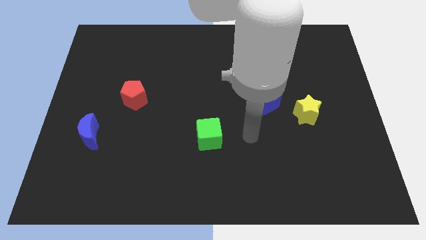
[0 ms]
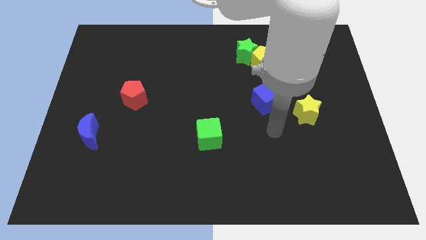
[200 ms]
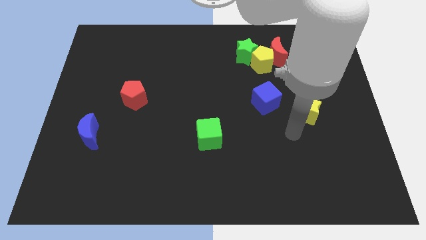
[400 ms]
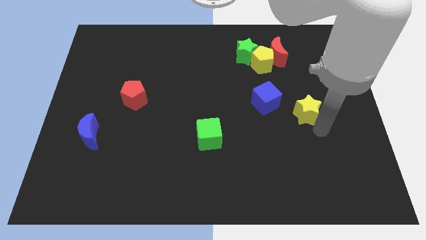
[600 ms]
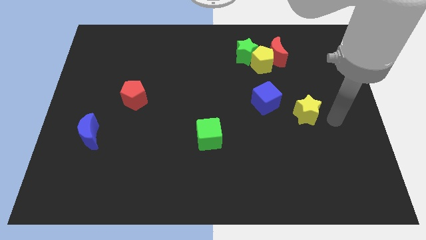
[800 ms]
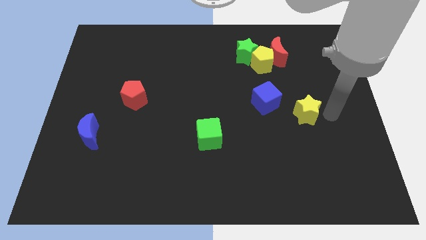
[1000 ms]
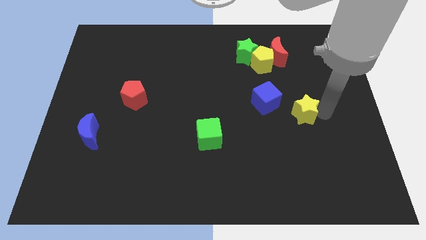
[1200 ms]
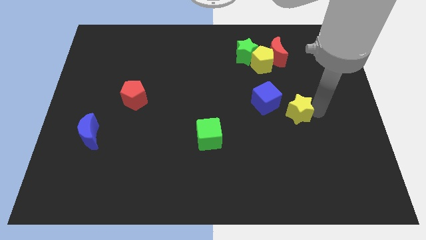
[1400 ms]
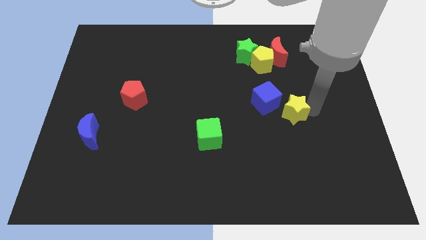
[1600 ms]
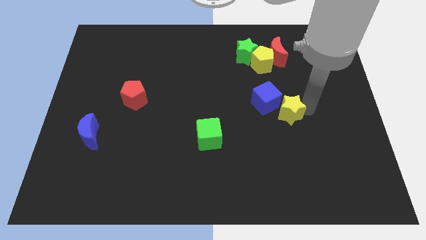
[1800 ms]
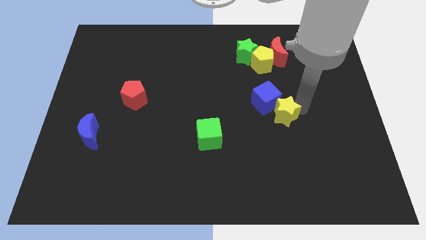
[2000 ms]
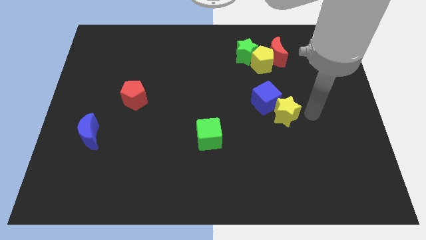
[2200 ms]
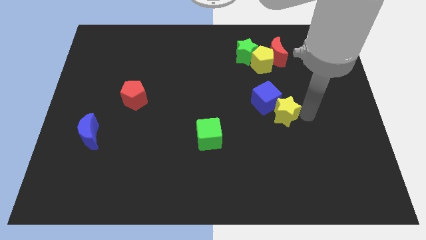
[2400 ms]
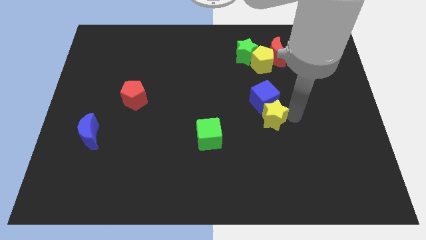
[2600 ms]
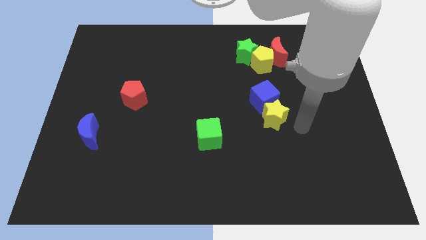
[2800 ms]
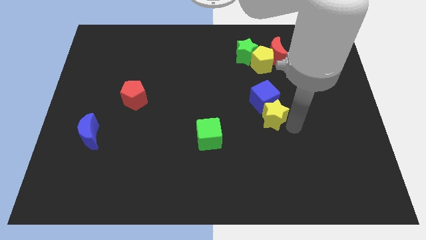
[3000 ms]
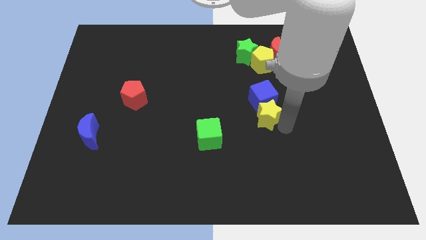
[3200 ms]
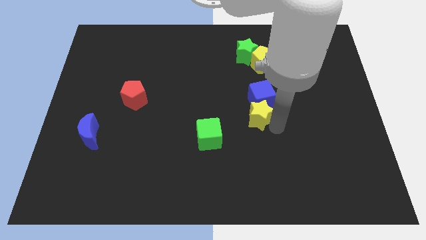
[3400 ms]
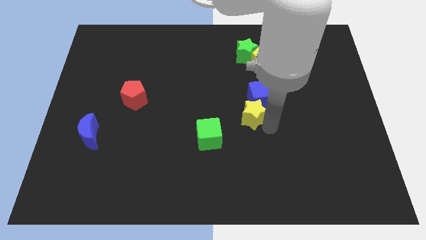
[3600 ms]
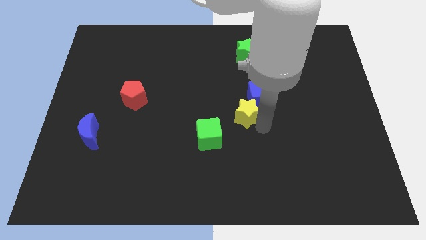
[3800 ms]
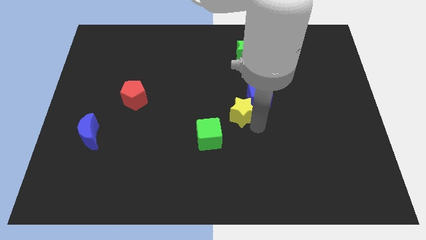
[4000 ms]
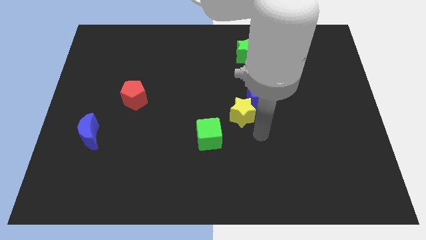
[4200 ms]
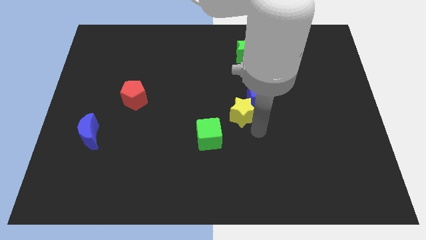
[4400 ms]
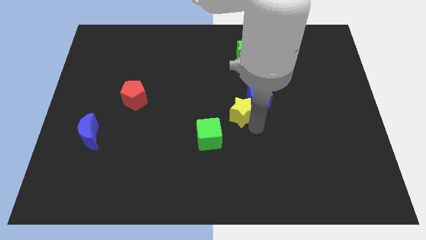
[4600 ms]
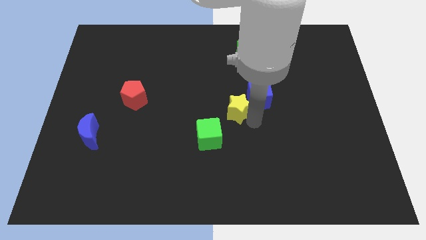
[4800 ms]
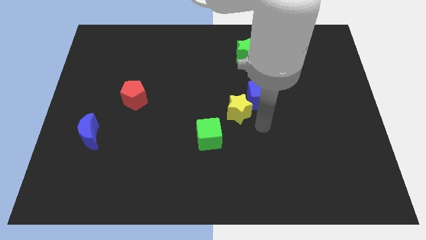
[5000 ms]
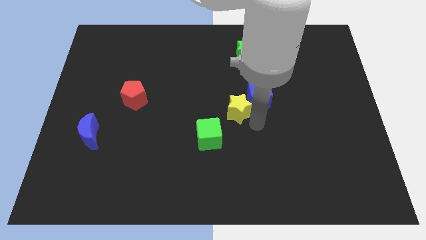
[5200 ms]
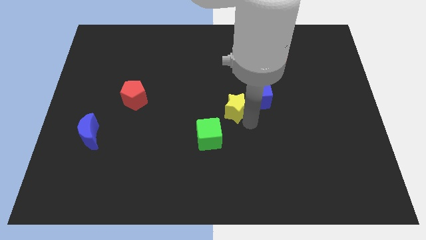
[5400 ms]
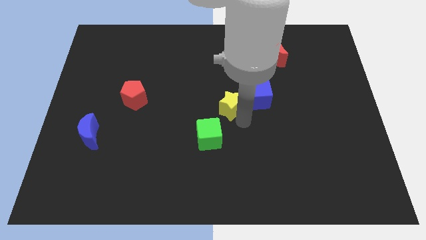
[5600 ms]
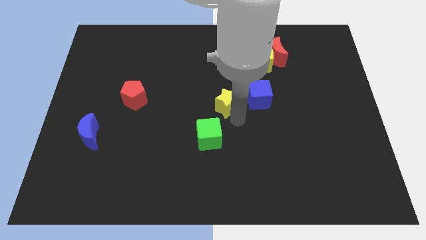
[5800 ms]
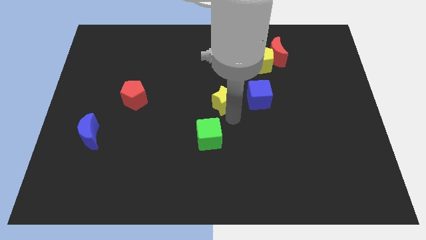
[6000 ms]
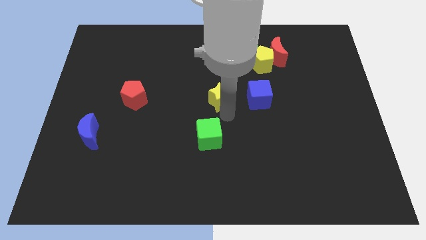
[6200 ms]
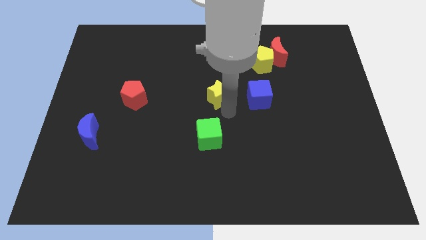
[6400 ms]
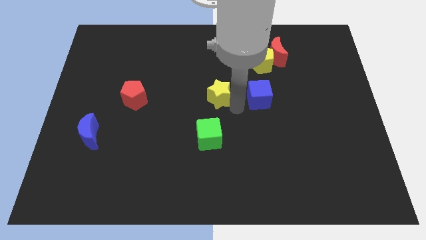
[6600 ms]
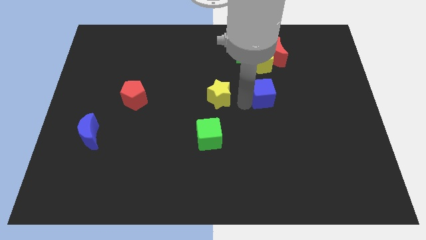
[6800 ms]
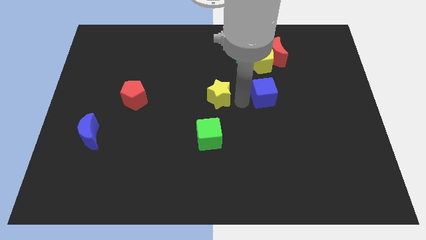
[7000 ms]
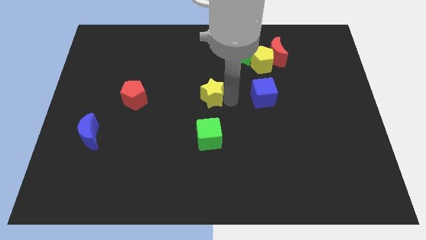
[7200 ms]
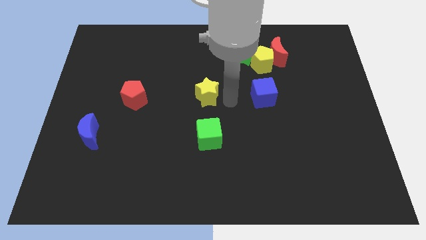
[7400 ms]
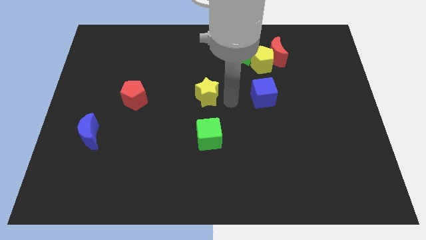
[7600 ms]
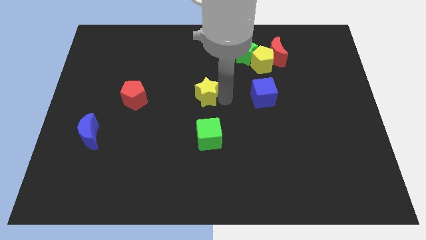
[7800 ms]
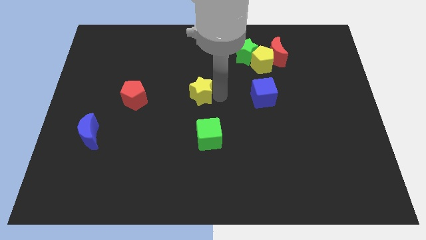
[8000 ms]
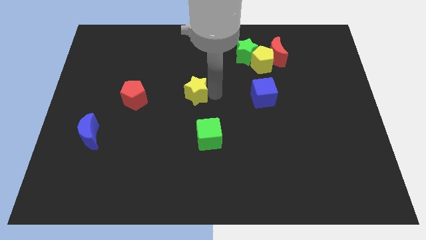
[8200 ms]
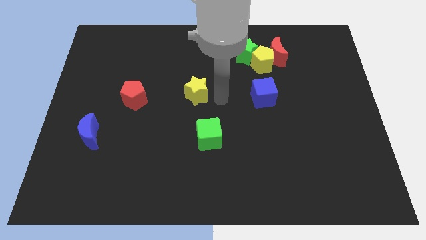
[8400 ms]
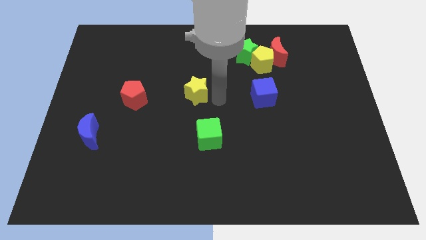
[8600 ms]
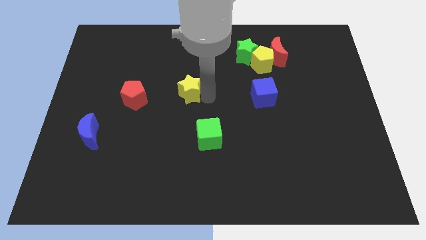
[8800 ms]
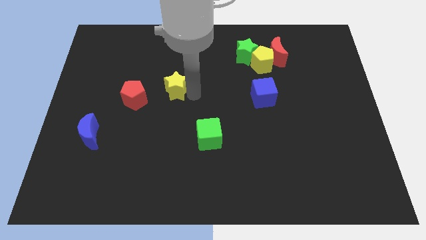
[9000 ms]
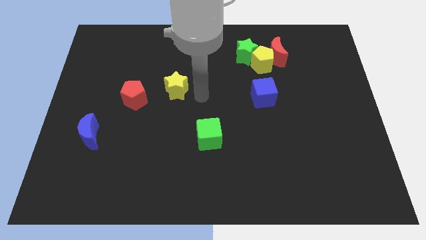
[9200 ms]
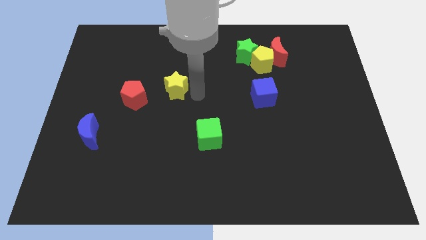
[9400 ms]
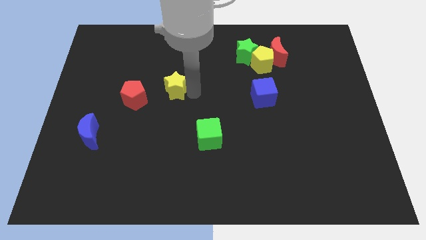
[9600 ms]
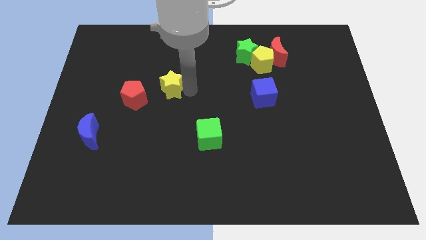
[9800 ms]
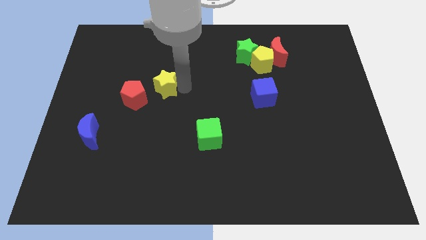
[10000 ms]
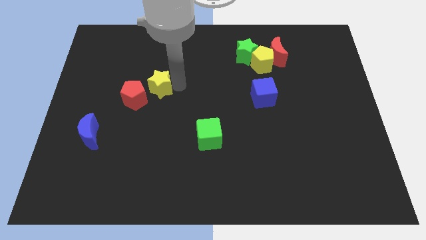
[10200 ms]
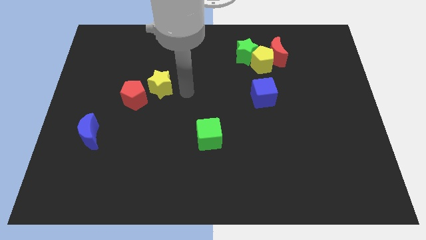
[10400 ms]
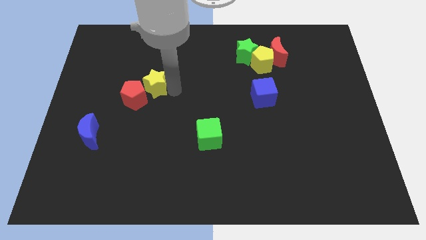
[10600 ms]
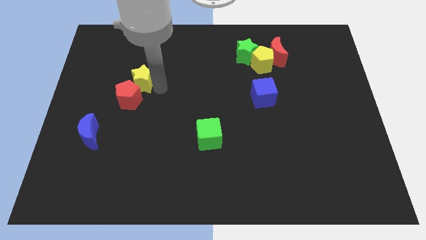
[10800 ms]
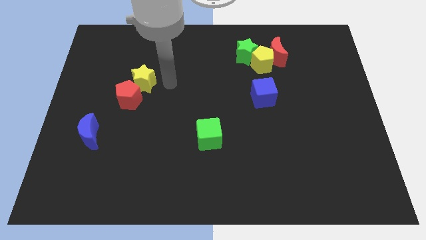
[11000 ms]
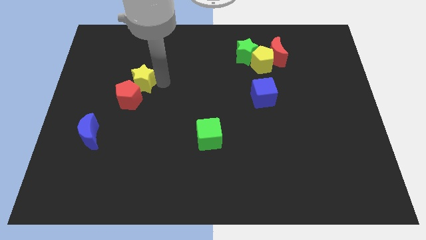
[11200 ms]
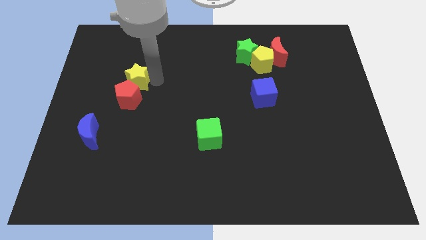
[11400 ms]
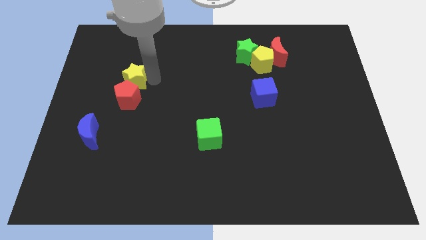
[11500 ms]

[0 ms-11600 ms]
push the yellow star to the top left of the red pentagon

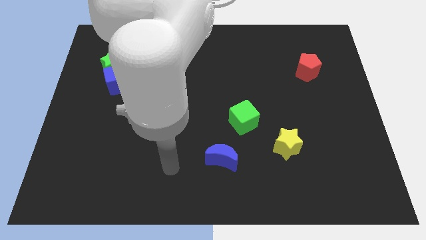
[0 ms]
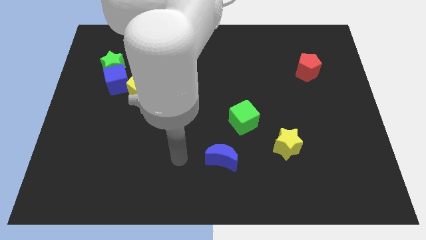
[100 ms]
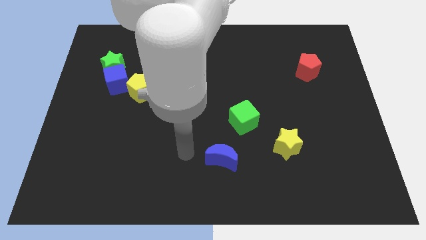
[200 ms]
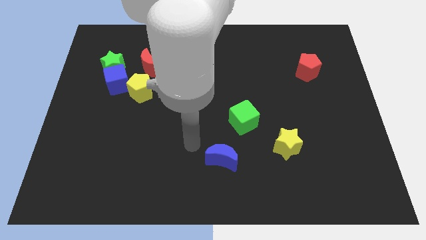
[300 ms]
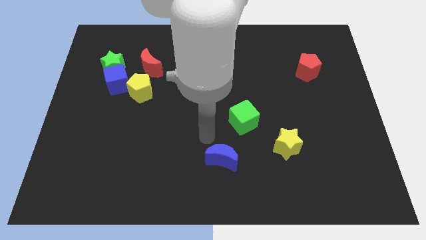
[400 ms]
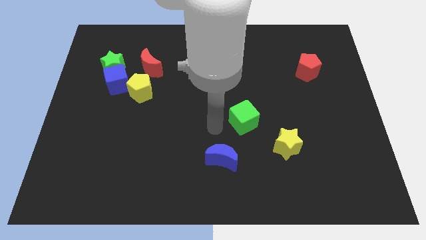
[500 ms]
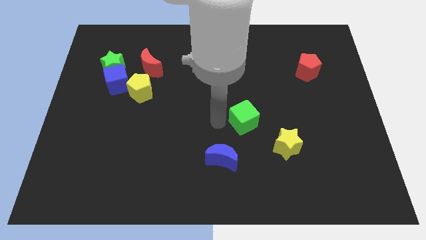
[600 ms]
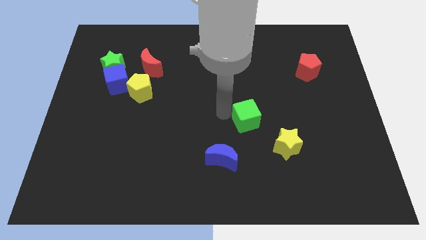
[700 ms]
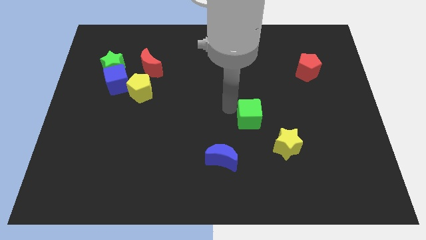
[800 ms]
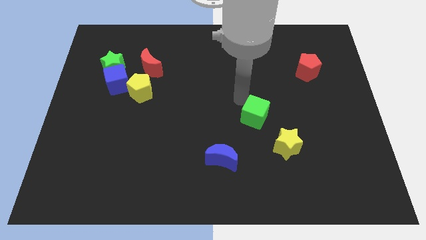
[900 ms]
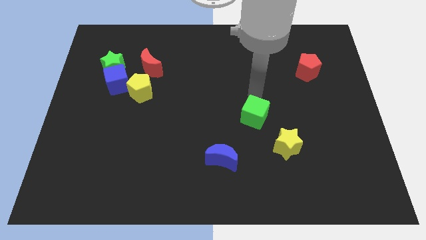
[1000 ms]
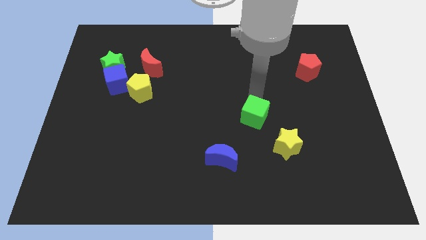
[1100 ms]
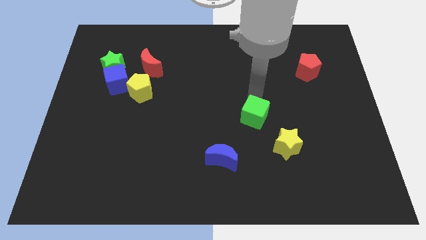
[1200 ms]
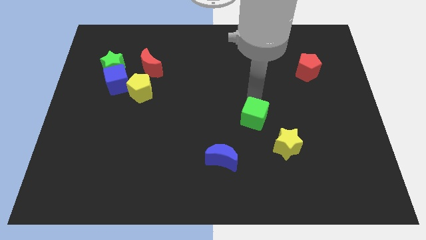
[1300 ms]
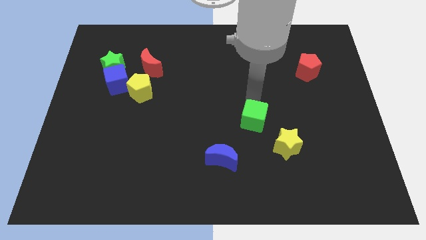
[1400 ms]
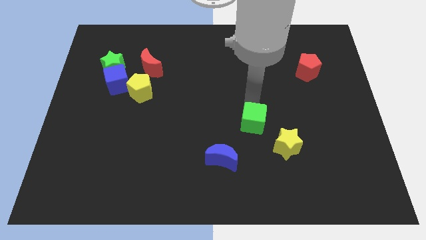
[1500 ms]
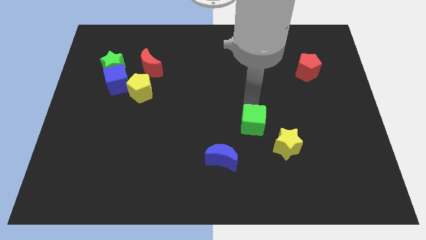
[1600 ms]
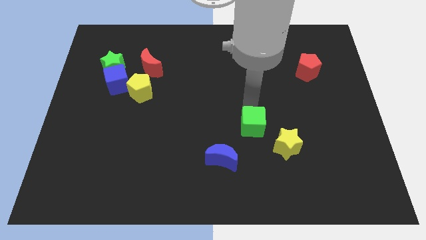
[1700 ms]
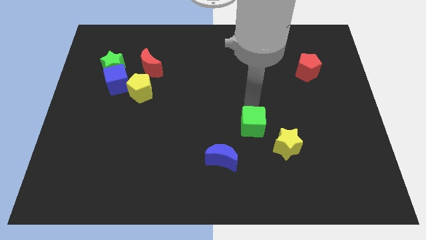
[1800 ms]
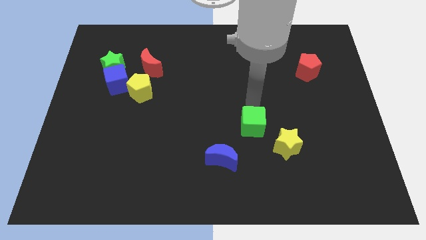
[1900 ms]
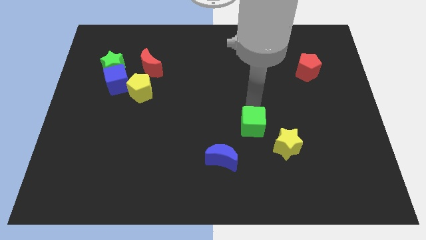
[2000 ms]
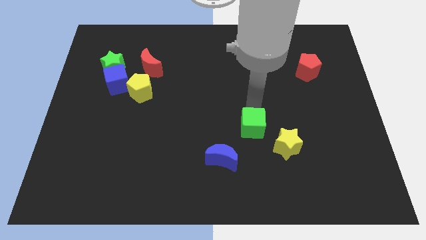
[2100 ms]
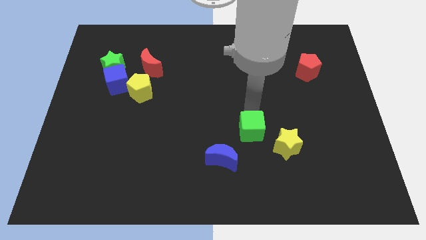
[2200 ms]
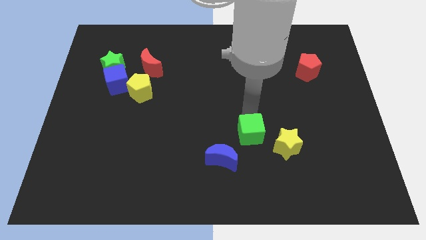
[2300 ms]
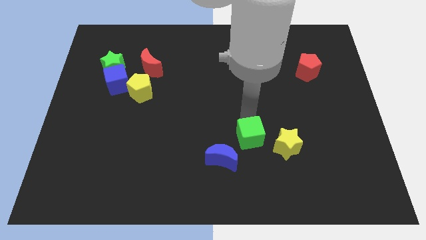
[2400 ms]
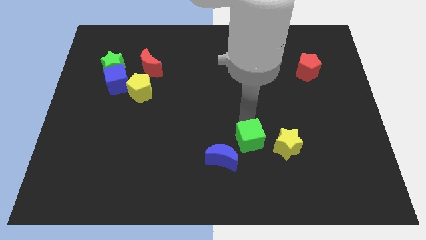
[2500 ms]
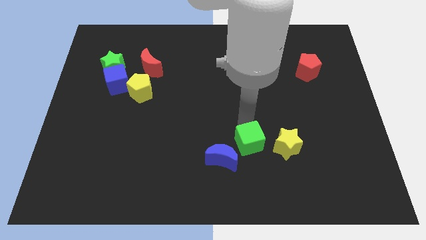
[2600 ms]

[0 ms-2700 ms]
put the green cube just right of the blue moon
